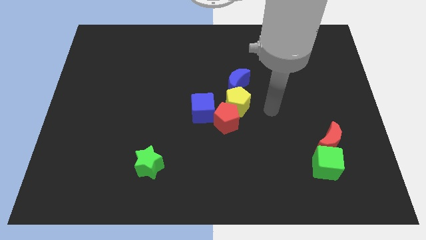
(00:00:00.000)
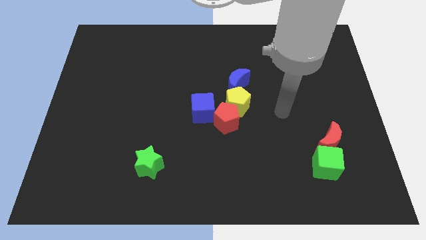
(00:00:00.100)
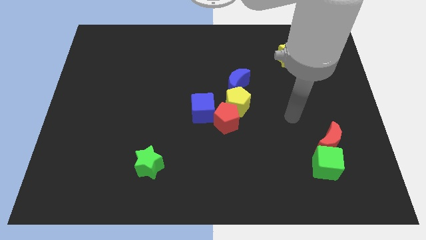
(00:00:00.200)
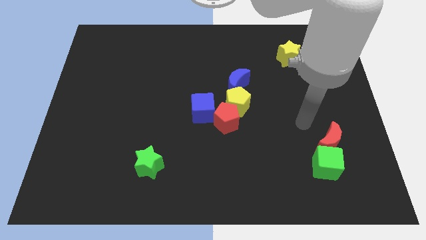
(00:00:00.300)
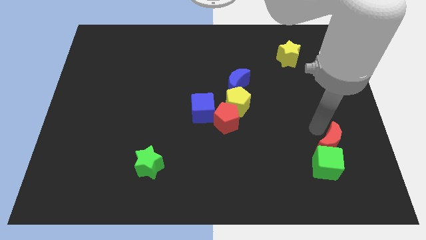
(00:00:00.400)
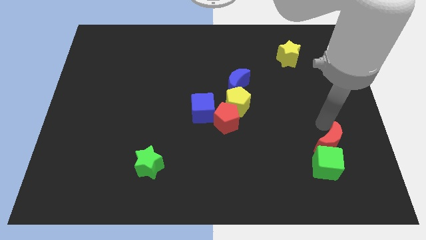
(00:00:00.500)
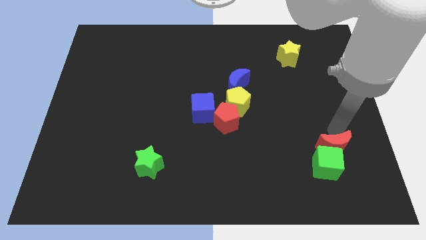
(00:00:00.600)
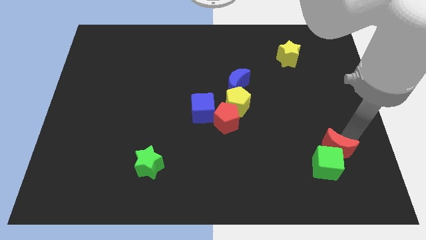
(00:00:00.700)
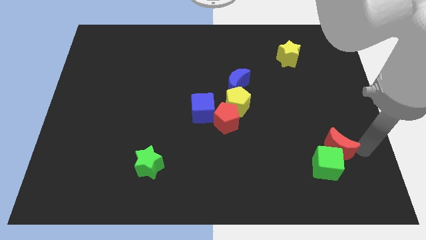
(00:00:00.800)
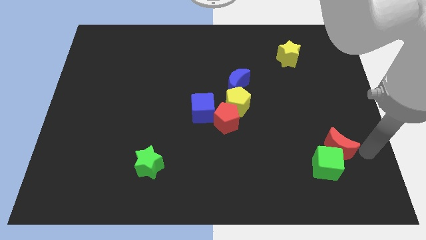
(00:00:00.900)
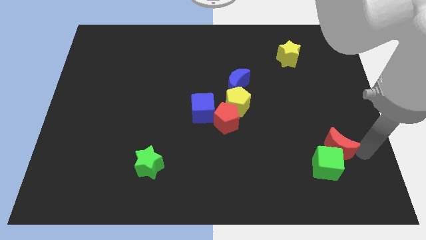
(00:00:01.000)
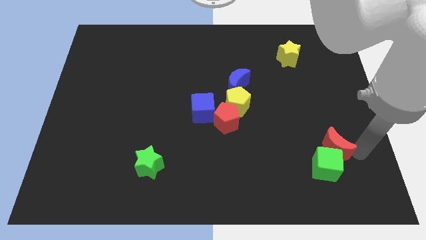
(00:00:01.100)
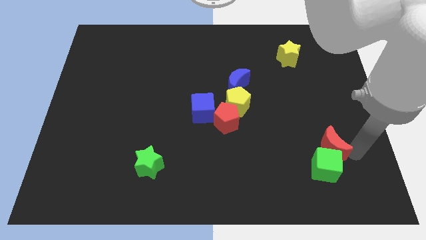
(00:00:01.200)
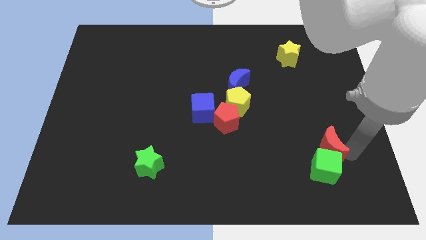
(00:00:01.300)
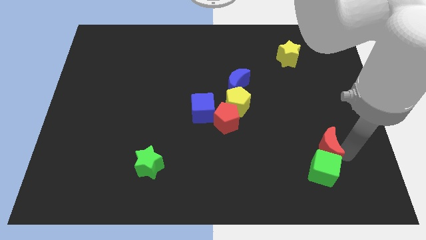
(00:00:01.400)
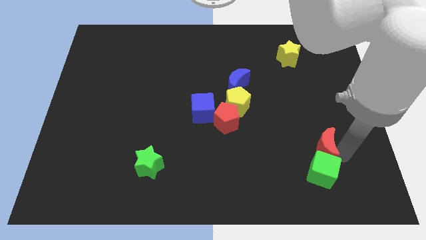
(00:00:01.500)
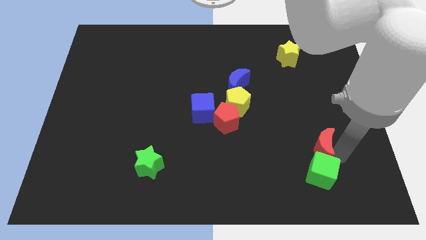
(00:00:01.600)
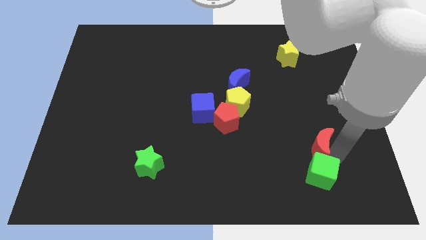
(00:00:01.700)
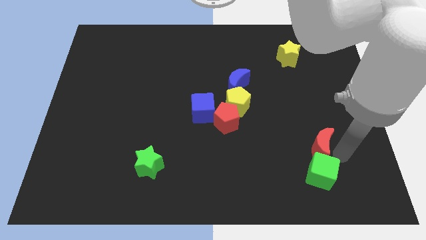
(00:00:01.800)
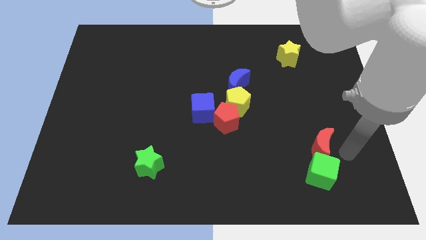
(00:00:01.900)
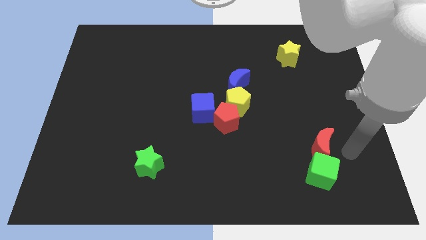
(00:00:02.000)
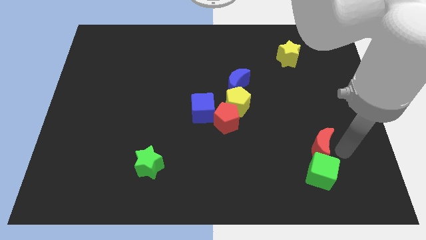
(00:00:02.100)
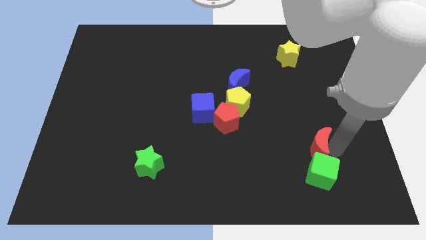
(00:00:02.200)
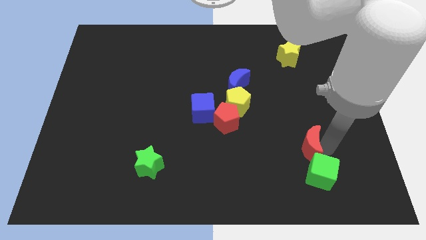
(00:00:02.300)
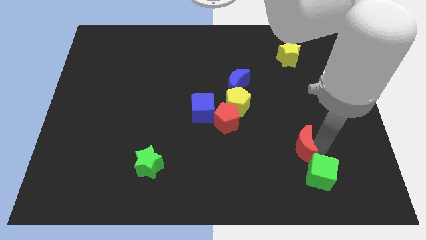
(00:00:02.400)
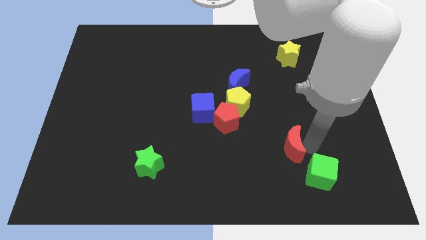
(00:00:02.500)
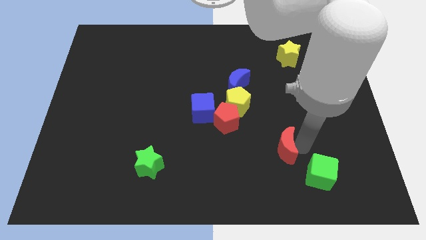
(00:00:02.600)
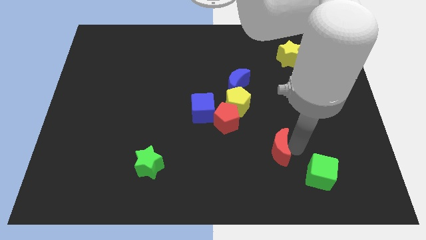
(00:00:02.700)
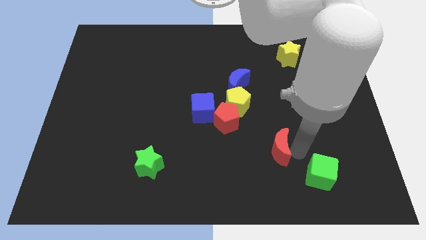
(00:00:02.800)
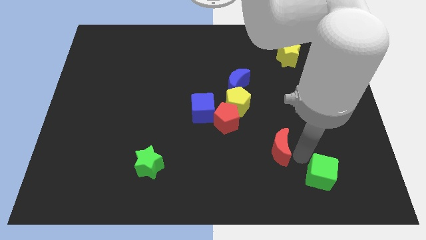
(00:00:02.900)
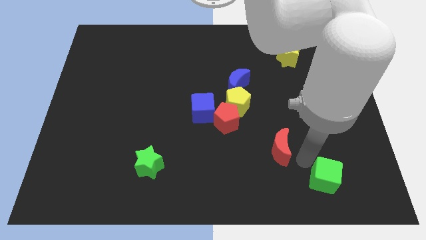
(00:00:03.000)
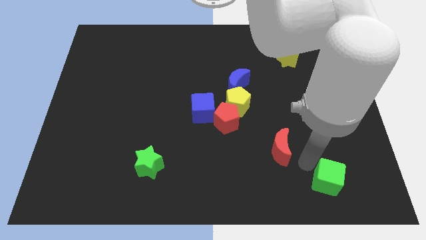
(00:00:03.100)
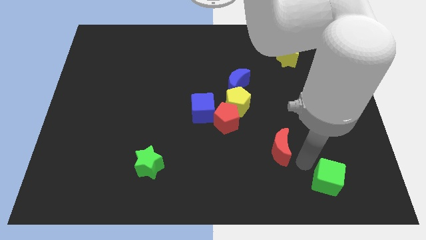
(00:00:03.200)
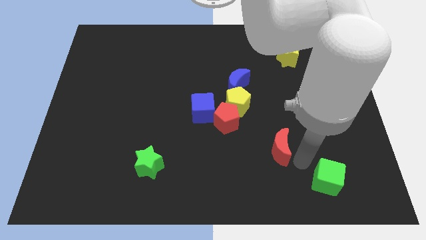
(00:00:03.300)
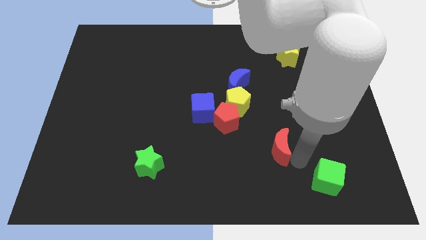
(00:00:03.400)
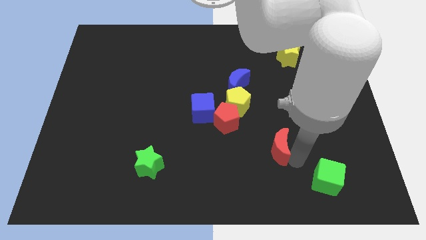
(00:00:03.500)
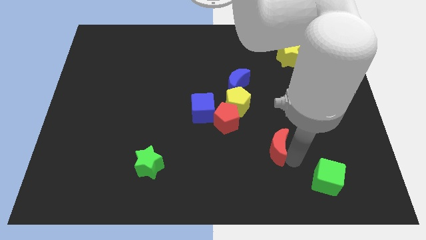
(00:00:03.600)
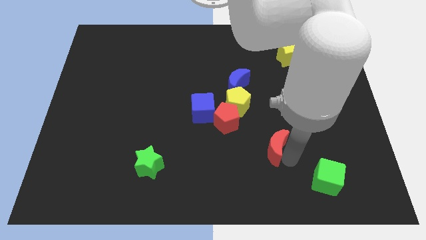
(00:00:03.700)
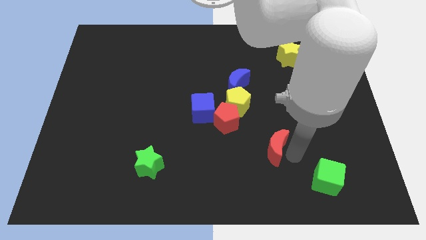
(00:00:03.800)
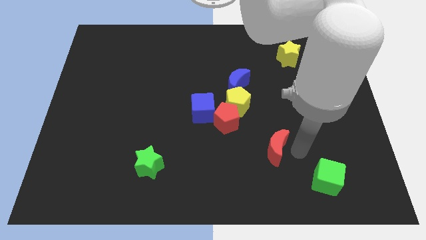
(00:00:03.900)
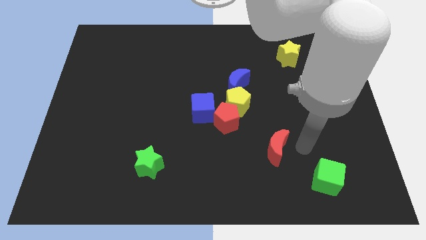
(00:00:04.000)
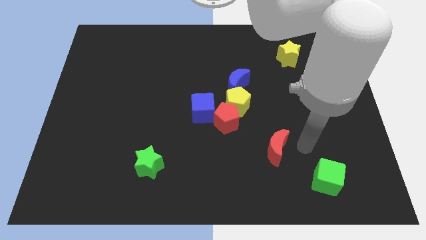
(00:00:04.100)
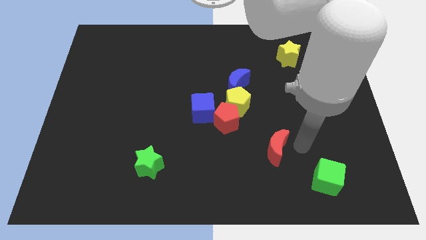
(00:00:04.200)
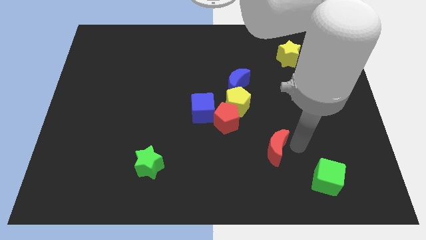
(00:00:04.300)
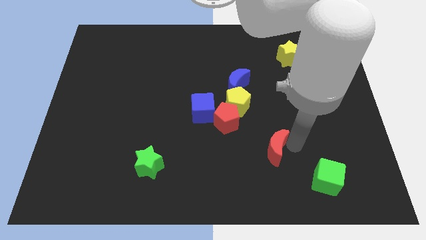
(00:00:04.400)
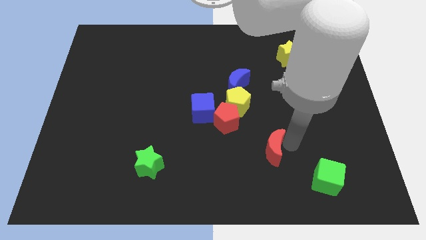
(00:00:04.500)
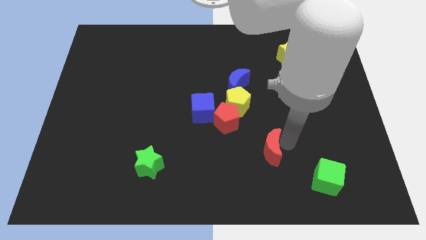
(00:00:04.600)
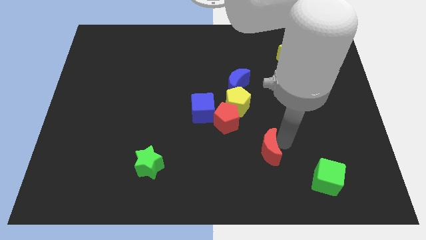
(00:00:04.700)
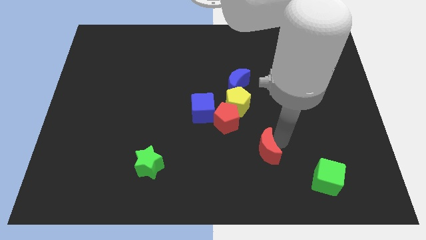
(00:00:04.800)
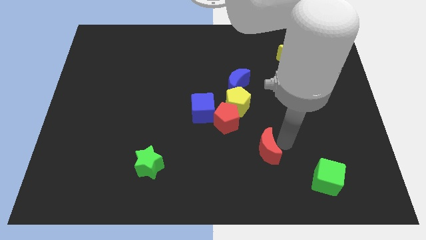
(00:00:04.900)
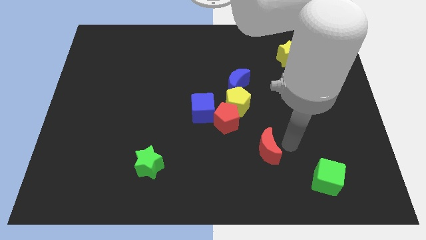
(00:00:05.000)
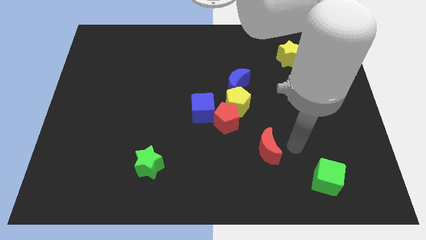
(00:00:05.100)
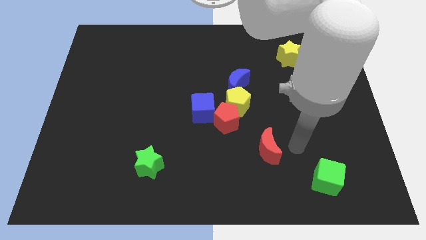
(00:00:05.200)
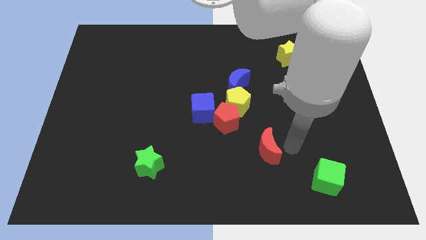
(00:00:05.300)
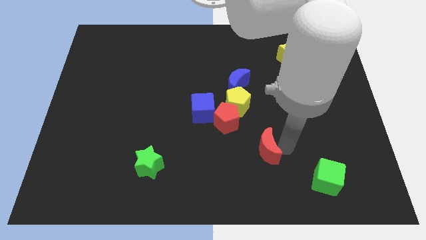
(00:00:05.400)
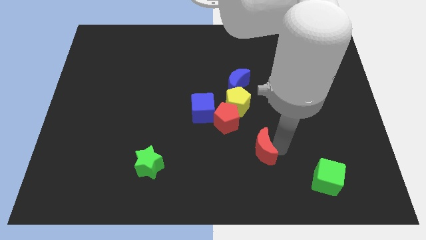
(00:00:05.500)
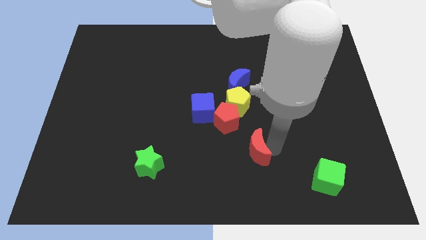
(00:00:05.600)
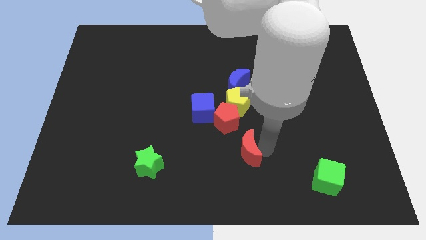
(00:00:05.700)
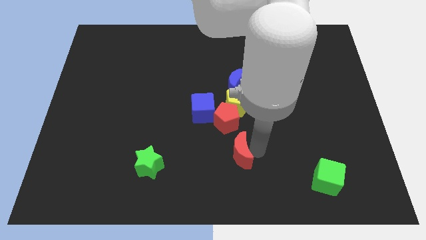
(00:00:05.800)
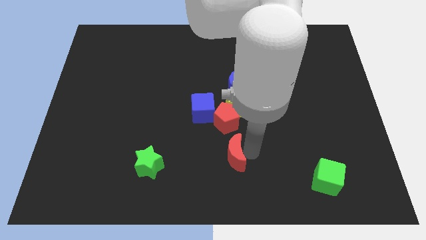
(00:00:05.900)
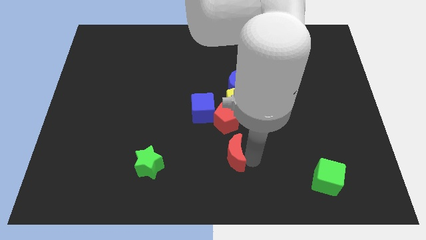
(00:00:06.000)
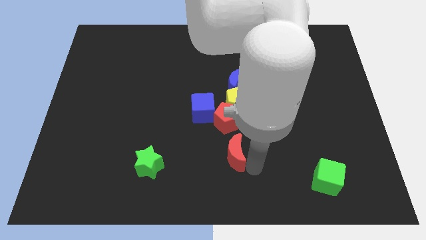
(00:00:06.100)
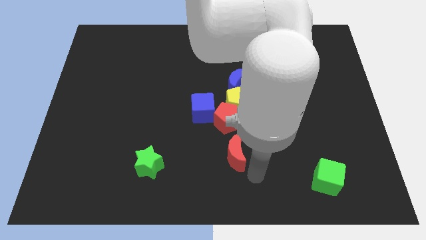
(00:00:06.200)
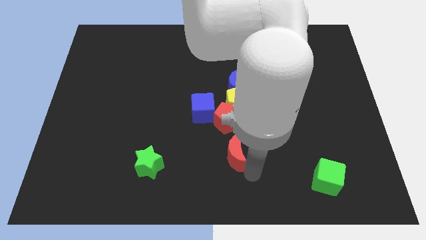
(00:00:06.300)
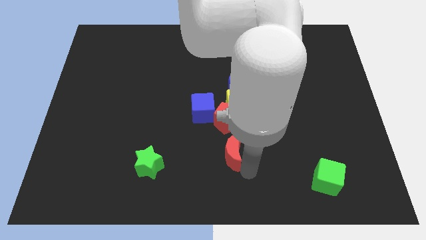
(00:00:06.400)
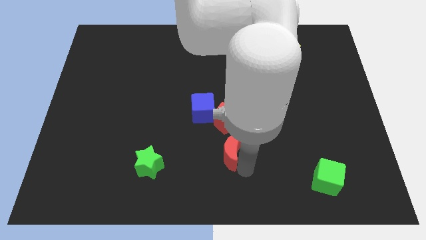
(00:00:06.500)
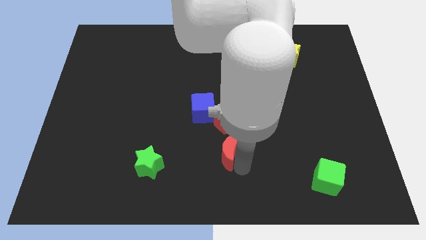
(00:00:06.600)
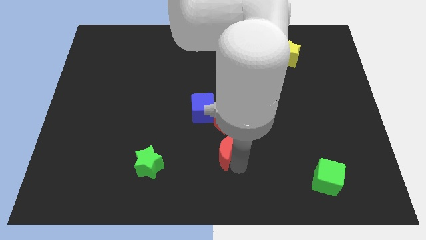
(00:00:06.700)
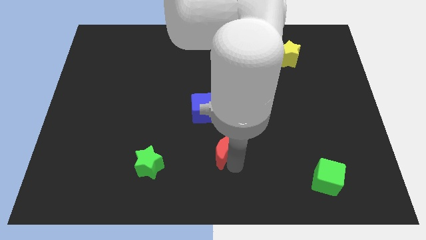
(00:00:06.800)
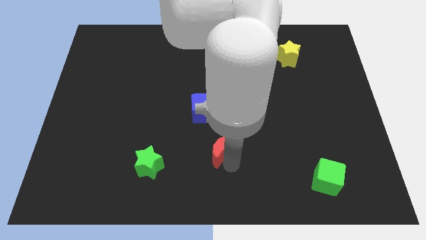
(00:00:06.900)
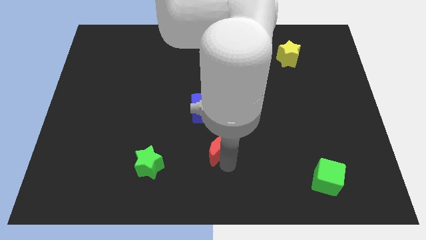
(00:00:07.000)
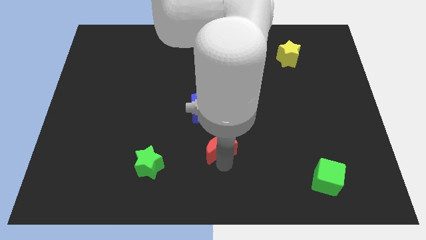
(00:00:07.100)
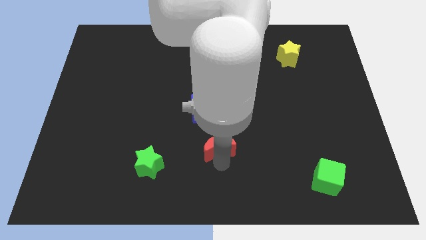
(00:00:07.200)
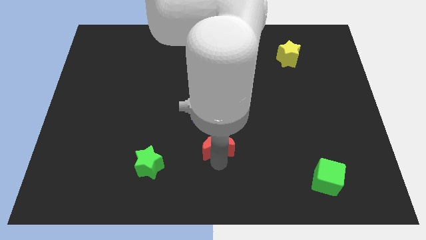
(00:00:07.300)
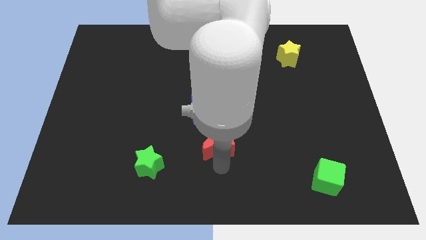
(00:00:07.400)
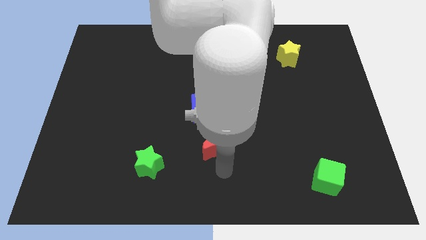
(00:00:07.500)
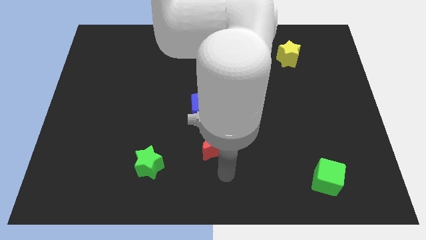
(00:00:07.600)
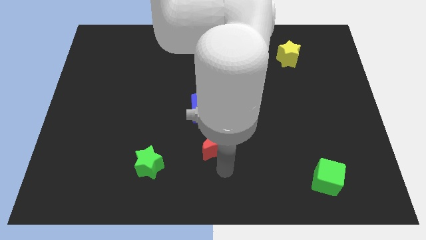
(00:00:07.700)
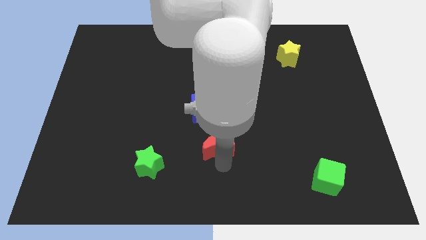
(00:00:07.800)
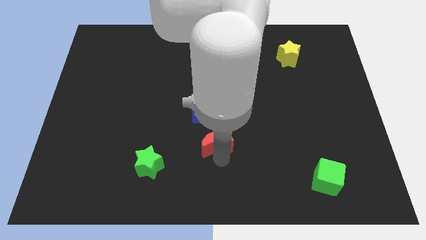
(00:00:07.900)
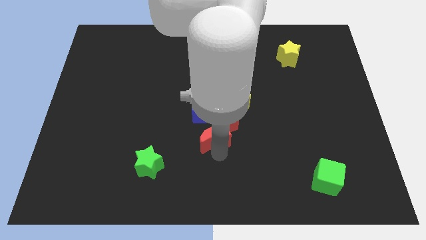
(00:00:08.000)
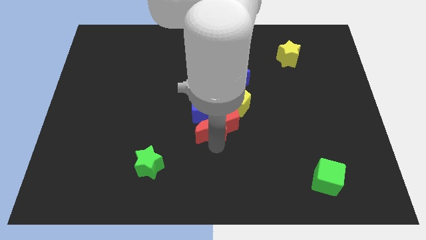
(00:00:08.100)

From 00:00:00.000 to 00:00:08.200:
move the red moon towards the blue cube
